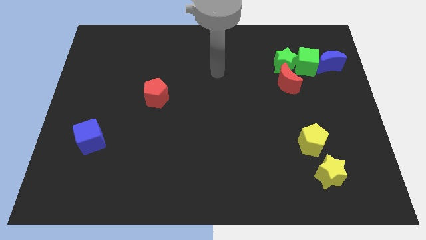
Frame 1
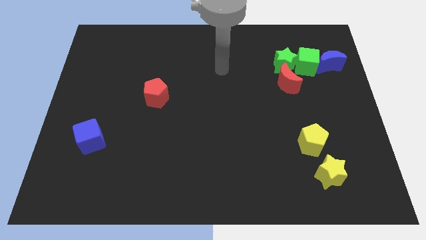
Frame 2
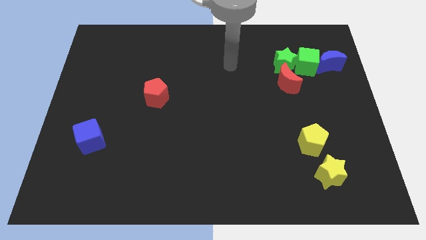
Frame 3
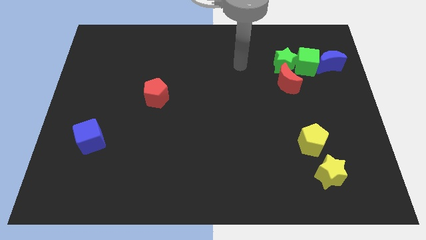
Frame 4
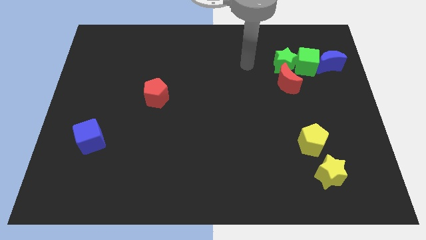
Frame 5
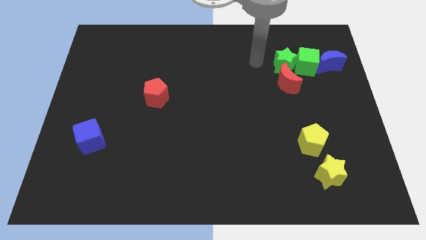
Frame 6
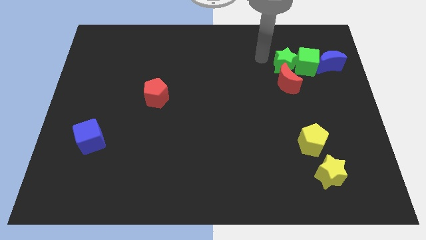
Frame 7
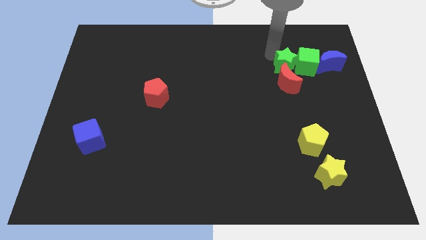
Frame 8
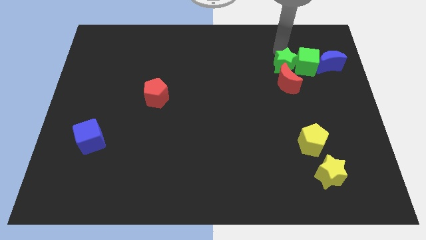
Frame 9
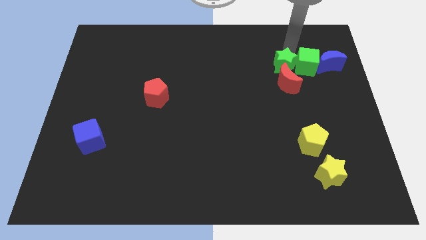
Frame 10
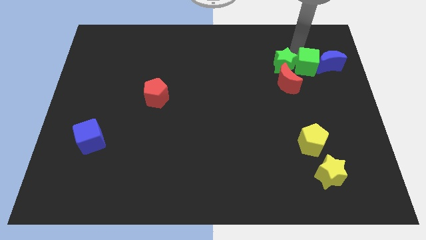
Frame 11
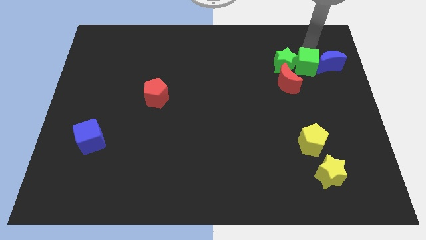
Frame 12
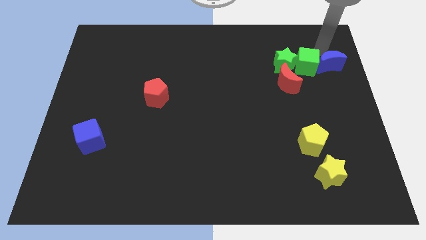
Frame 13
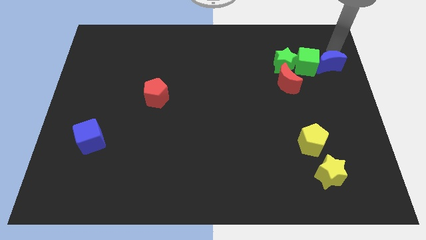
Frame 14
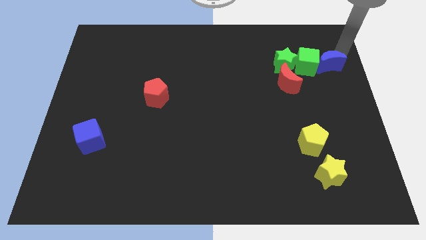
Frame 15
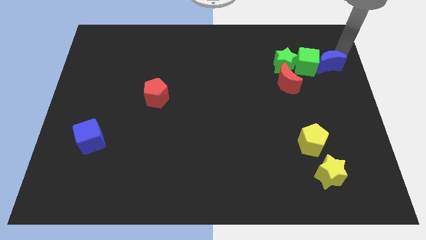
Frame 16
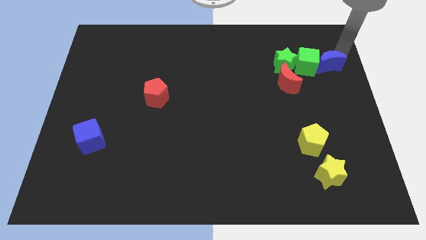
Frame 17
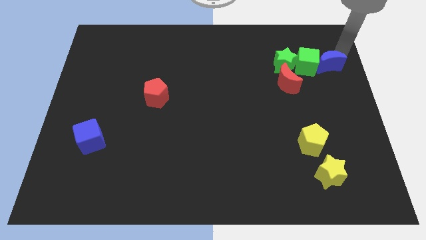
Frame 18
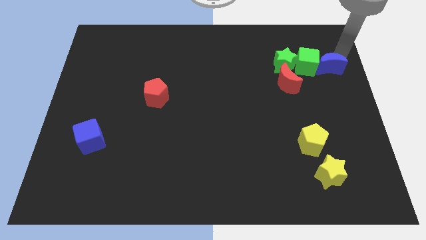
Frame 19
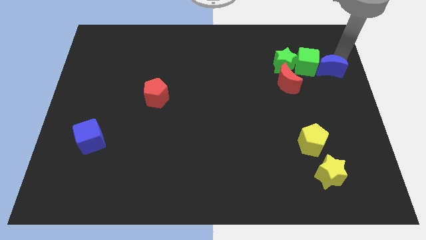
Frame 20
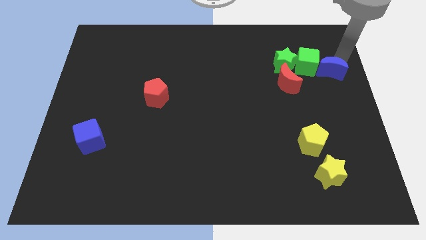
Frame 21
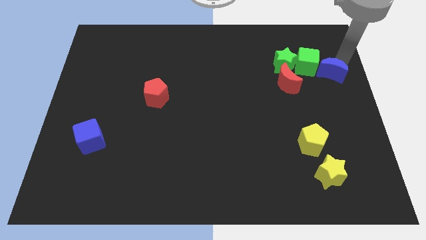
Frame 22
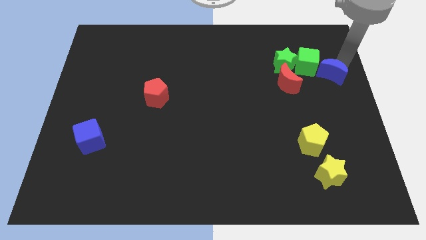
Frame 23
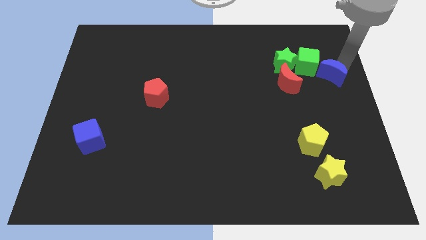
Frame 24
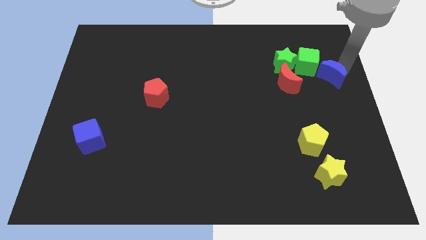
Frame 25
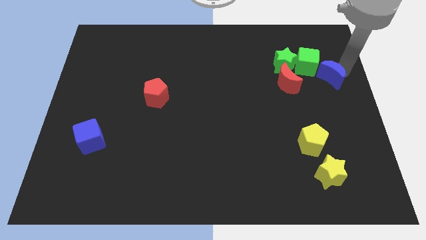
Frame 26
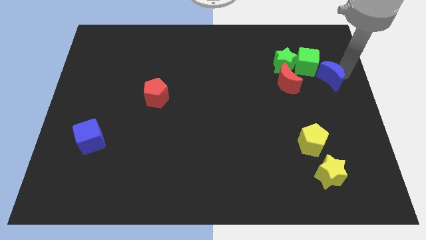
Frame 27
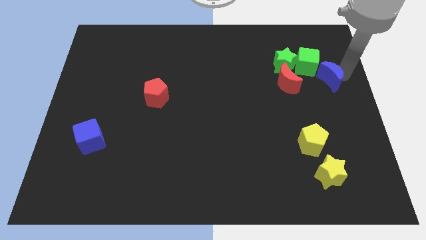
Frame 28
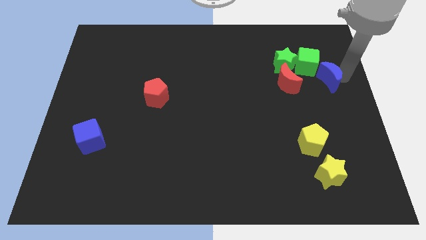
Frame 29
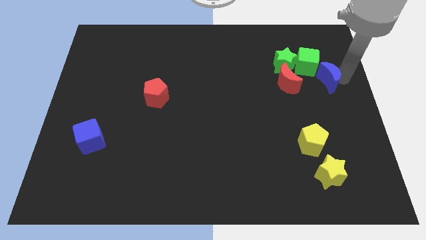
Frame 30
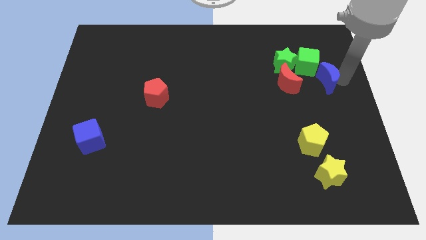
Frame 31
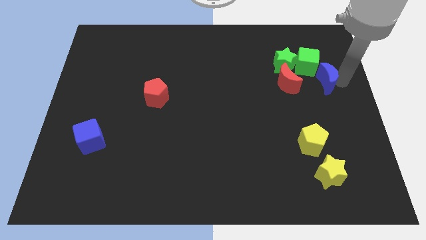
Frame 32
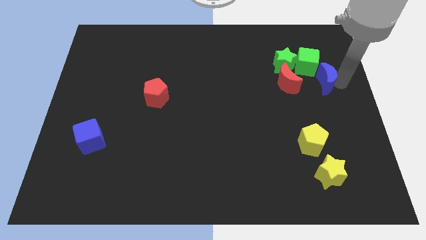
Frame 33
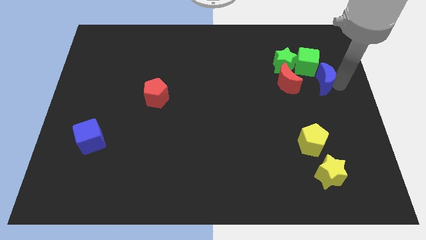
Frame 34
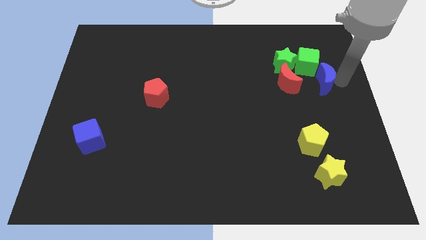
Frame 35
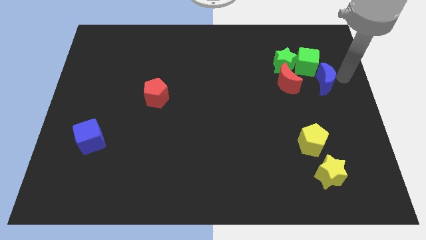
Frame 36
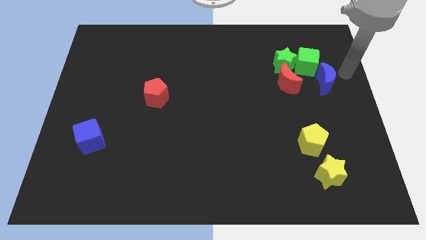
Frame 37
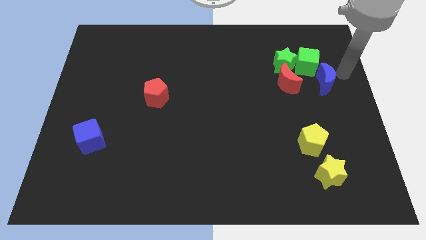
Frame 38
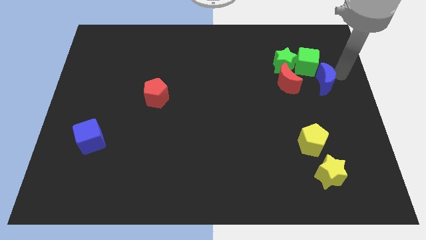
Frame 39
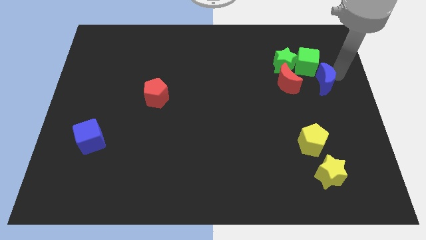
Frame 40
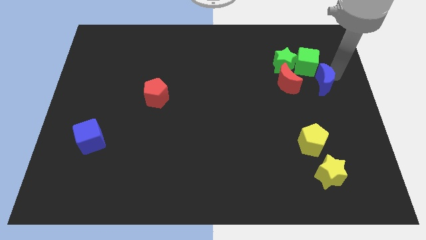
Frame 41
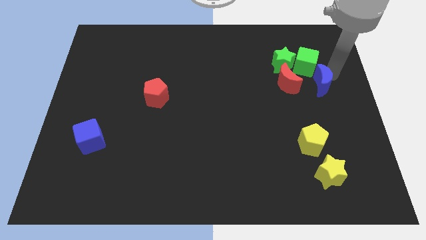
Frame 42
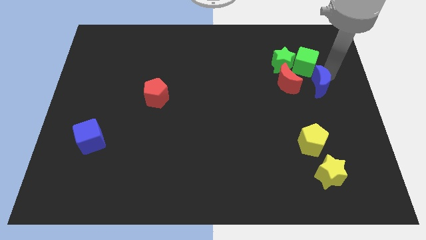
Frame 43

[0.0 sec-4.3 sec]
slide the blue moon down and then left slightly

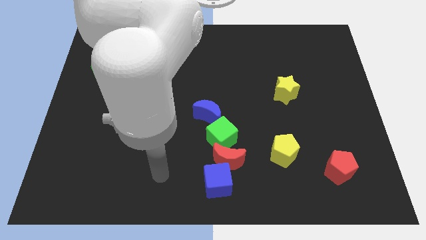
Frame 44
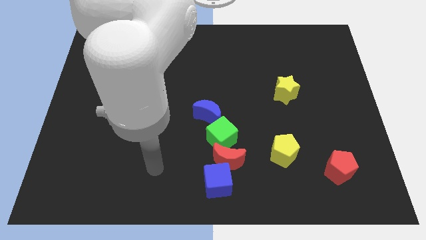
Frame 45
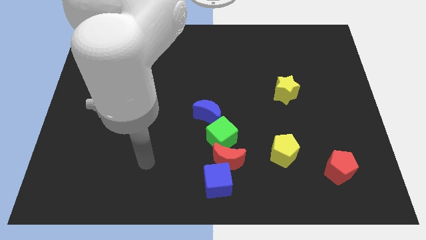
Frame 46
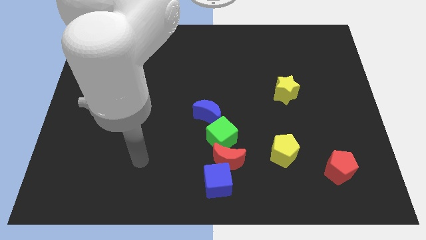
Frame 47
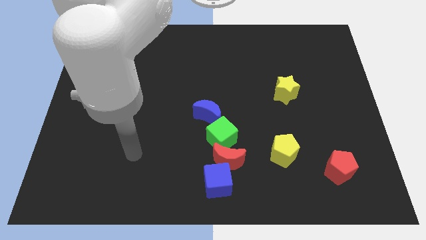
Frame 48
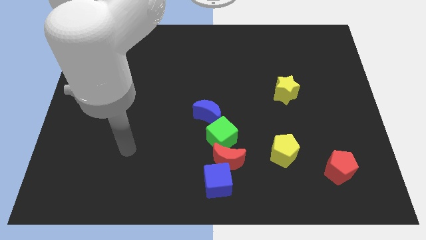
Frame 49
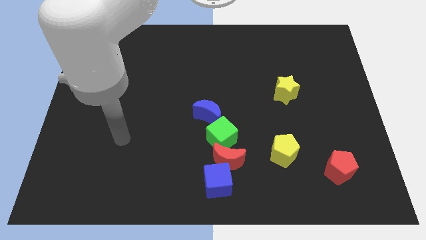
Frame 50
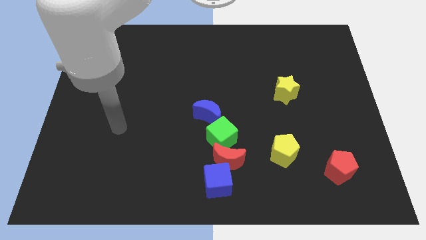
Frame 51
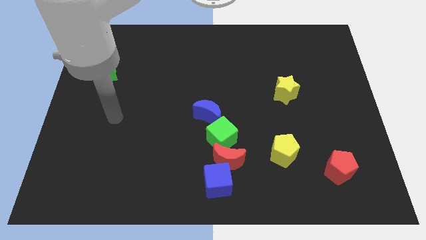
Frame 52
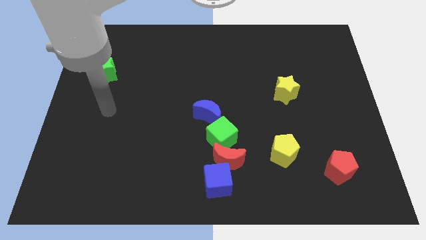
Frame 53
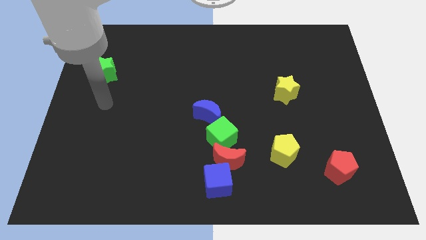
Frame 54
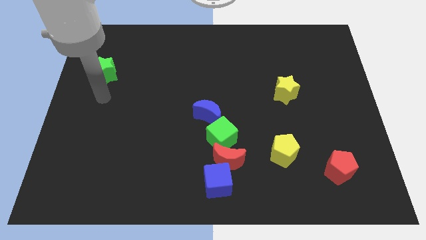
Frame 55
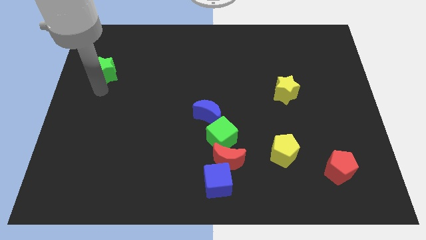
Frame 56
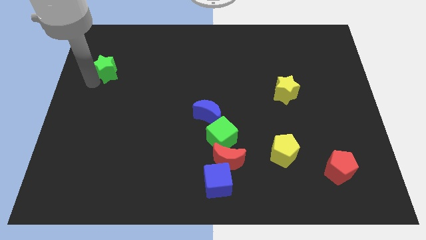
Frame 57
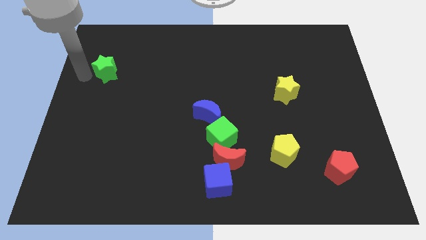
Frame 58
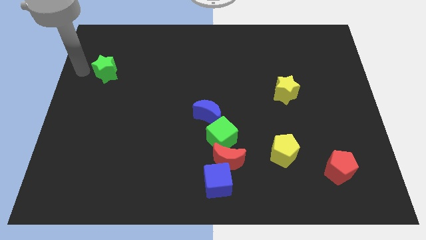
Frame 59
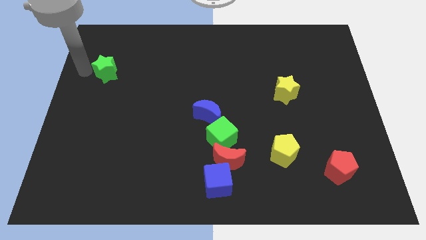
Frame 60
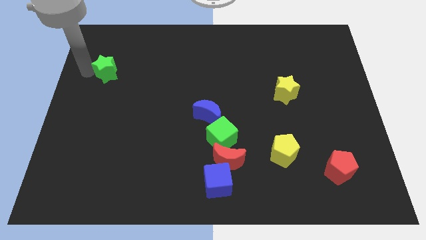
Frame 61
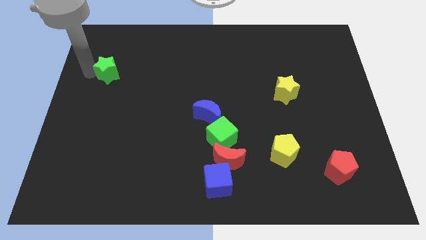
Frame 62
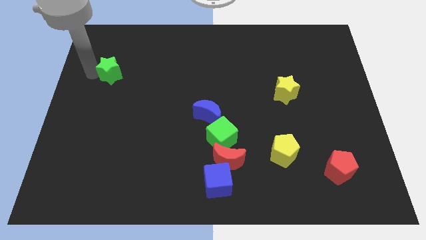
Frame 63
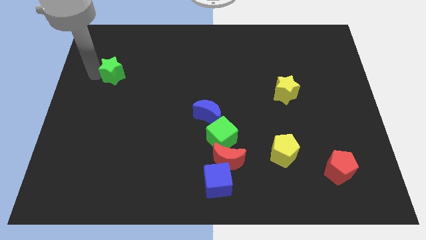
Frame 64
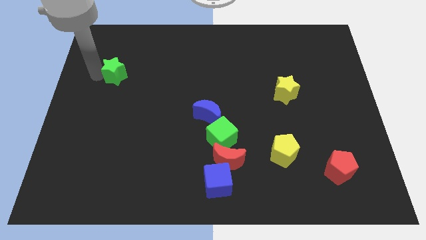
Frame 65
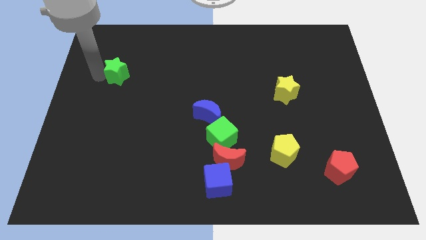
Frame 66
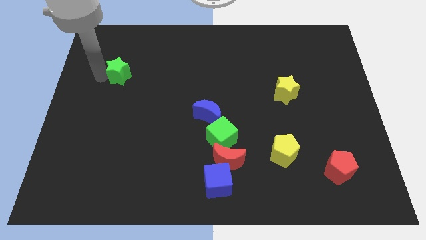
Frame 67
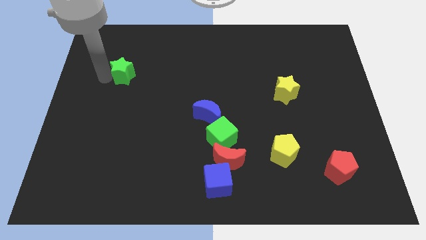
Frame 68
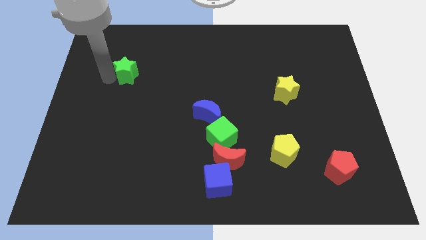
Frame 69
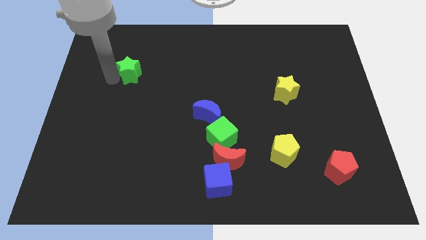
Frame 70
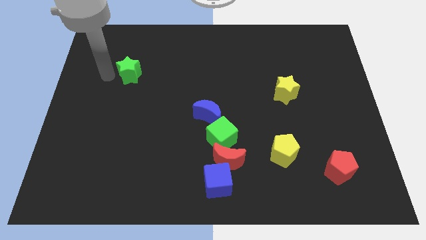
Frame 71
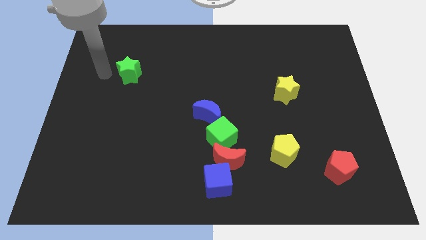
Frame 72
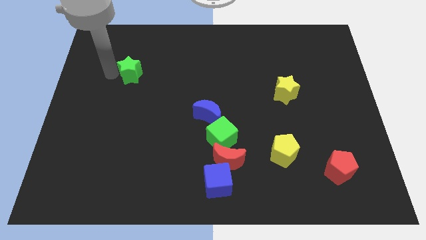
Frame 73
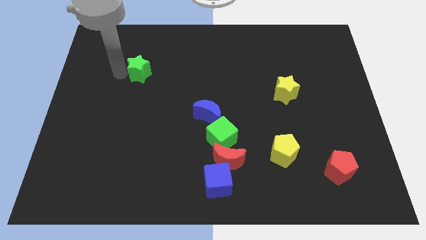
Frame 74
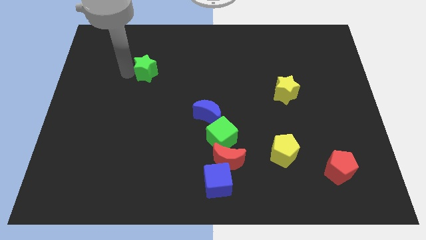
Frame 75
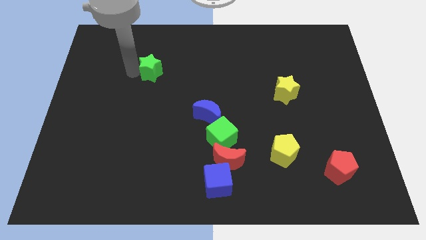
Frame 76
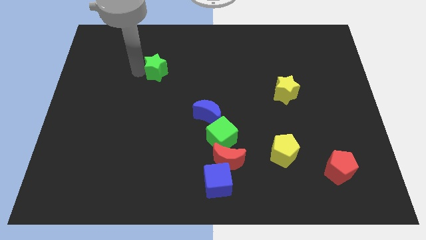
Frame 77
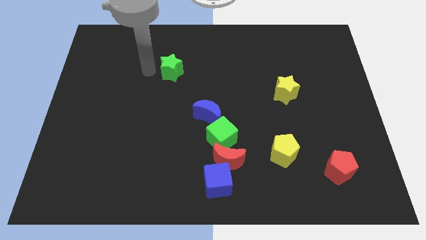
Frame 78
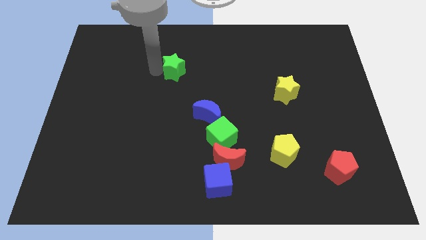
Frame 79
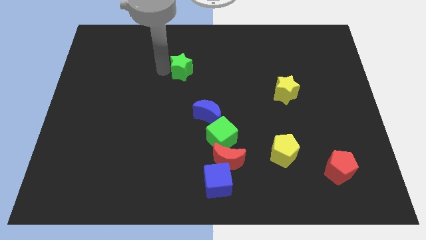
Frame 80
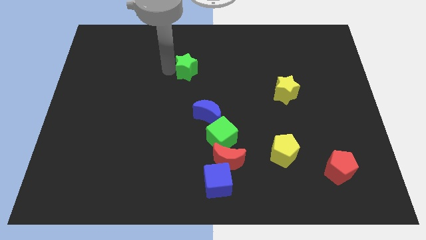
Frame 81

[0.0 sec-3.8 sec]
slide the green star right
